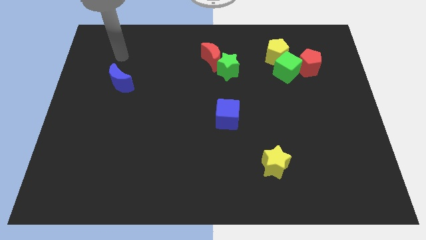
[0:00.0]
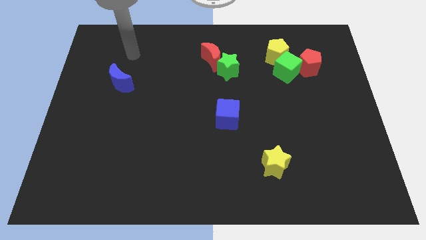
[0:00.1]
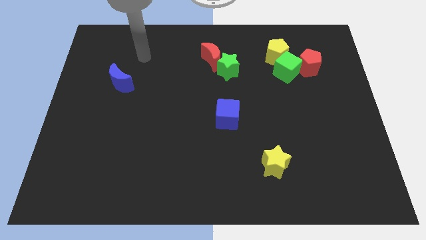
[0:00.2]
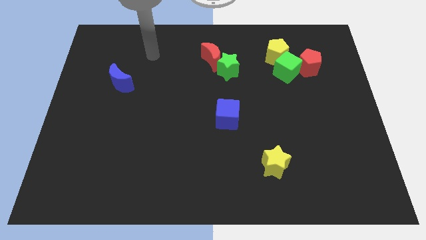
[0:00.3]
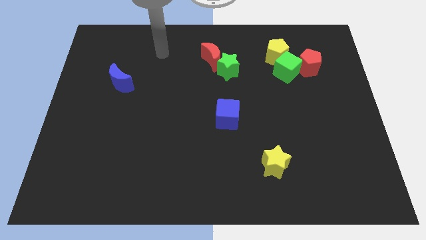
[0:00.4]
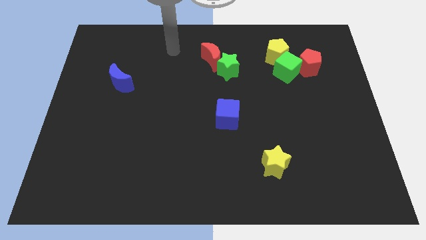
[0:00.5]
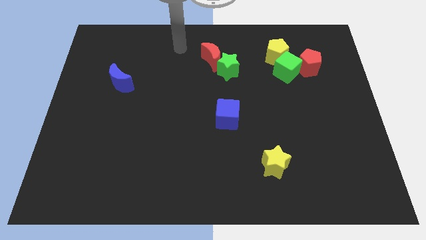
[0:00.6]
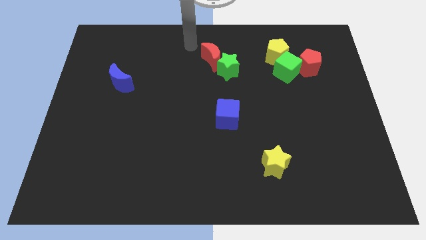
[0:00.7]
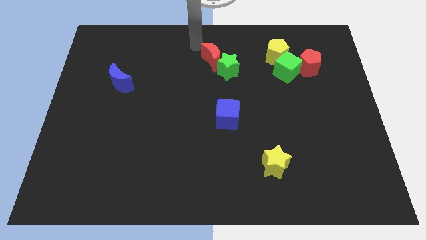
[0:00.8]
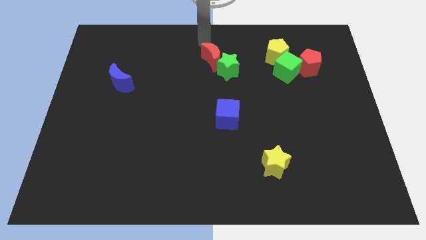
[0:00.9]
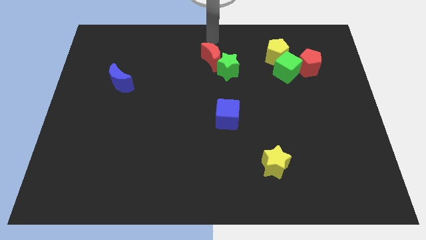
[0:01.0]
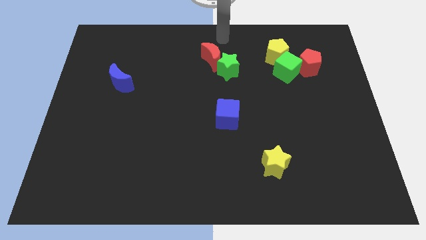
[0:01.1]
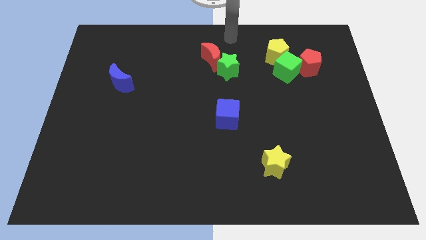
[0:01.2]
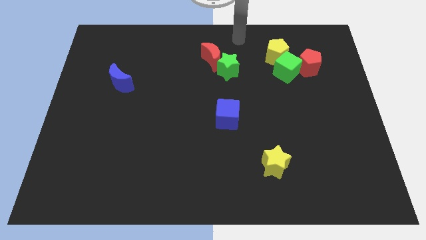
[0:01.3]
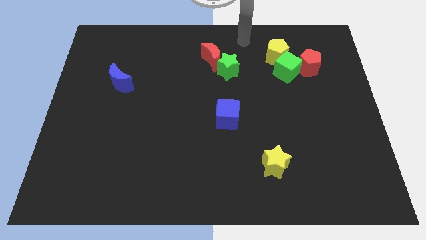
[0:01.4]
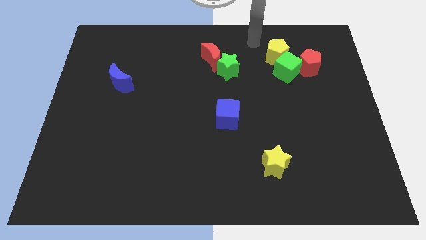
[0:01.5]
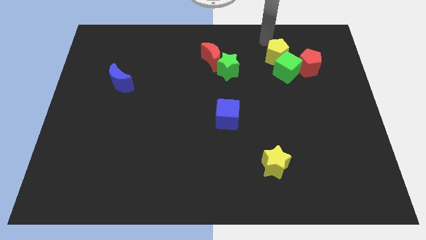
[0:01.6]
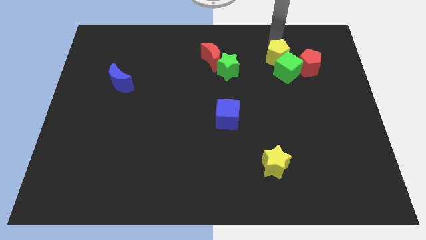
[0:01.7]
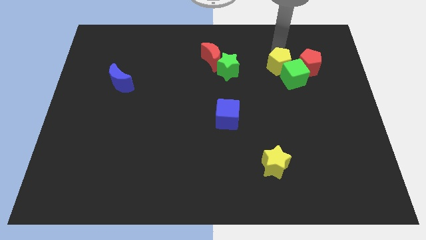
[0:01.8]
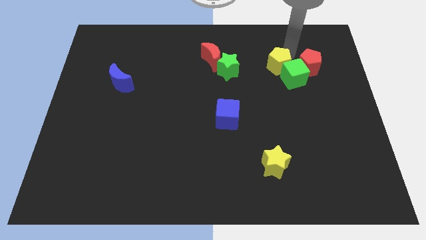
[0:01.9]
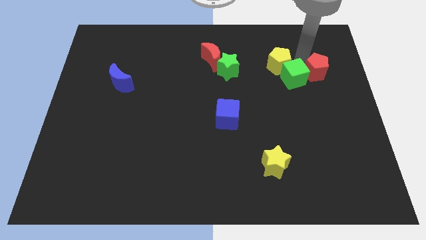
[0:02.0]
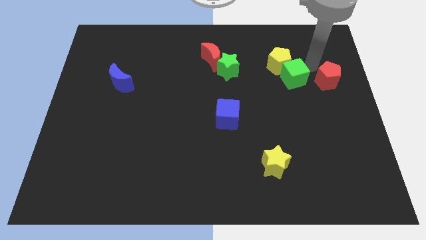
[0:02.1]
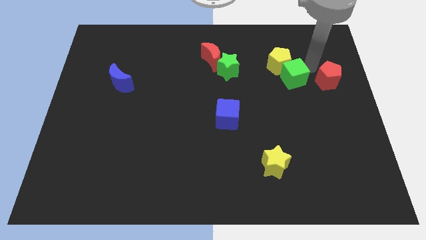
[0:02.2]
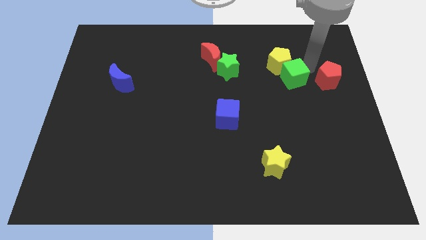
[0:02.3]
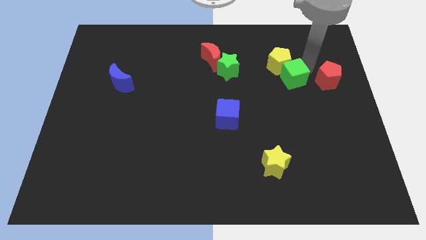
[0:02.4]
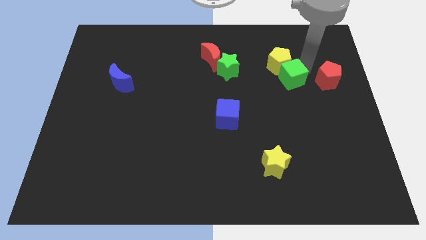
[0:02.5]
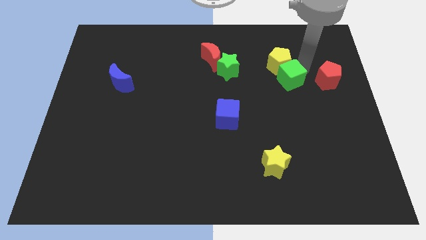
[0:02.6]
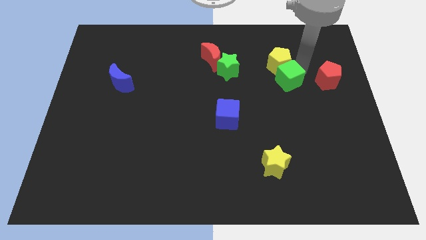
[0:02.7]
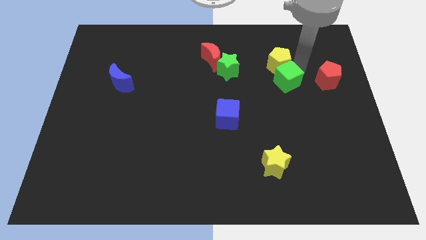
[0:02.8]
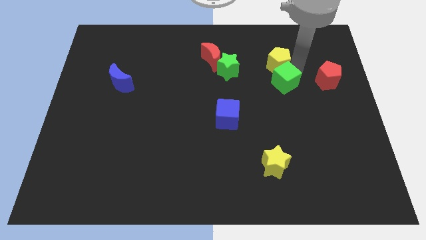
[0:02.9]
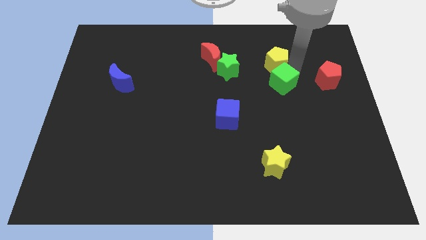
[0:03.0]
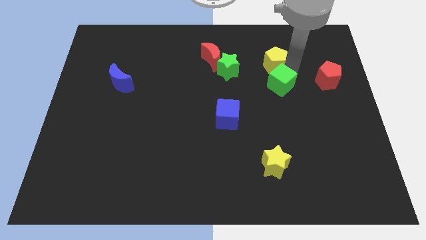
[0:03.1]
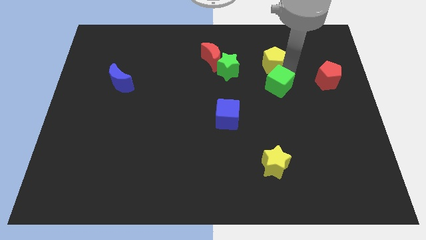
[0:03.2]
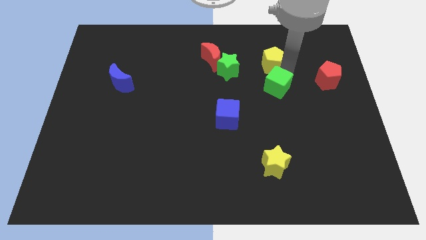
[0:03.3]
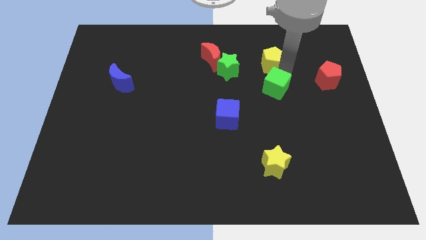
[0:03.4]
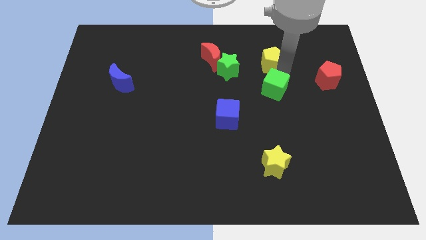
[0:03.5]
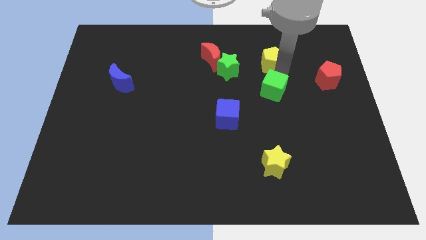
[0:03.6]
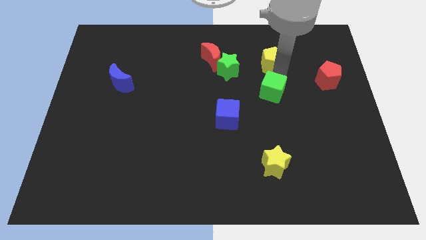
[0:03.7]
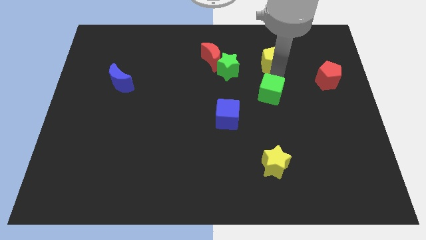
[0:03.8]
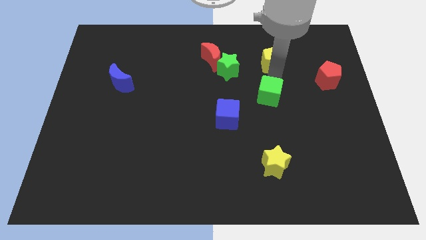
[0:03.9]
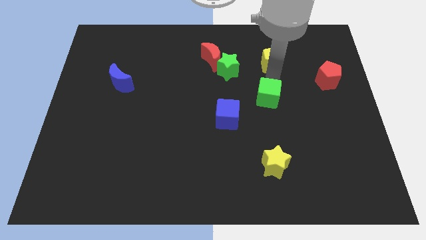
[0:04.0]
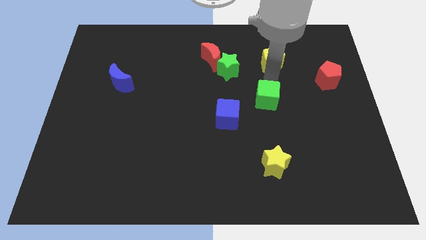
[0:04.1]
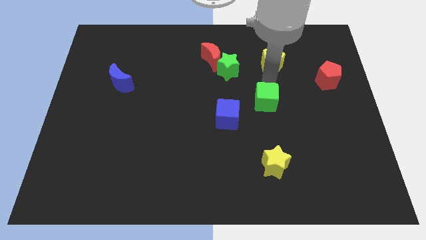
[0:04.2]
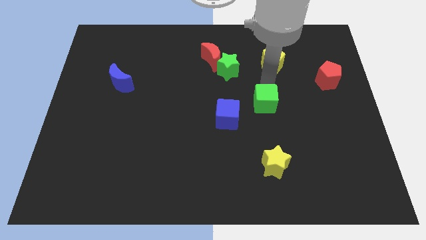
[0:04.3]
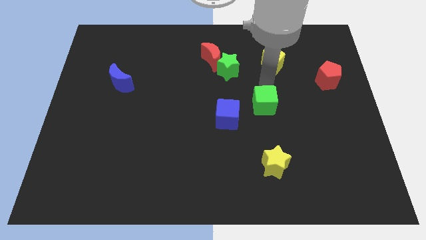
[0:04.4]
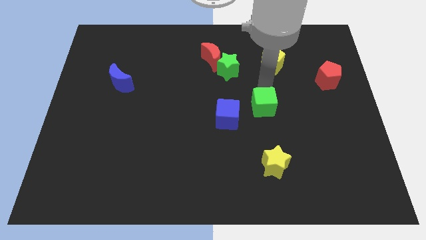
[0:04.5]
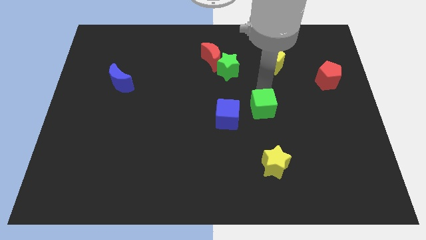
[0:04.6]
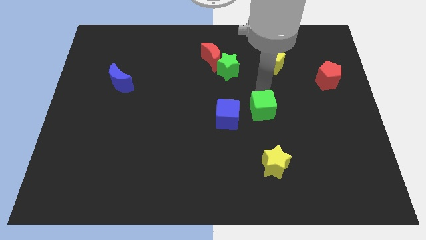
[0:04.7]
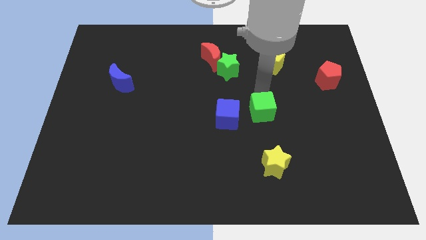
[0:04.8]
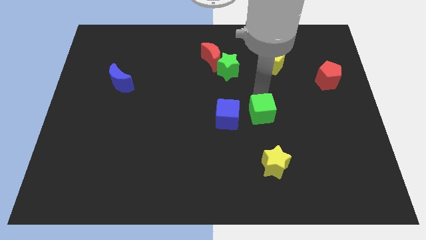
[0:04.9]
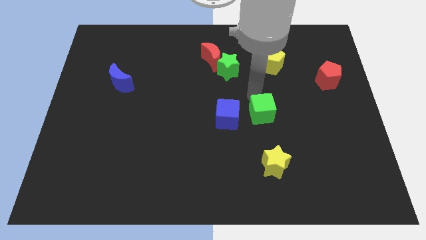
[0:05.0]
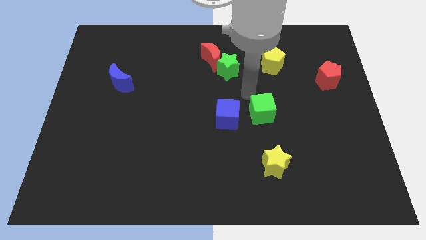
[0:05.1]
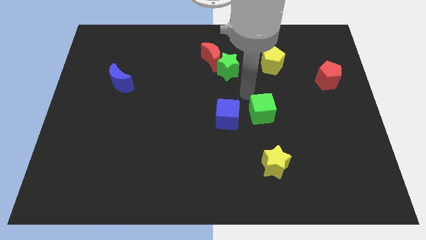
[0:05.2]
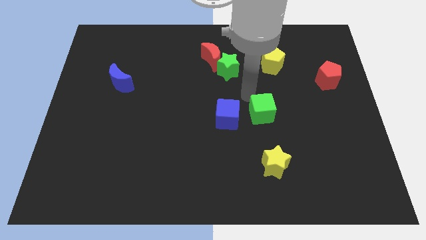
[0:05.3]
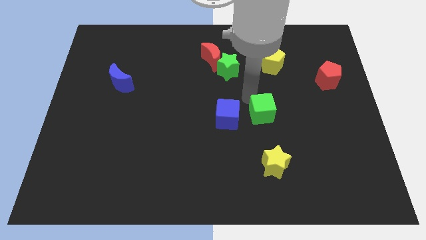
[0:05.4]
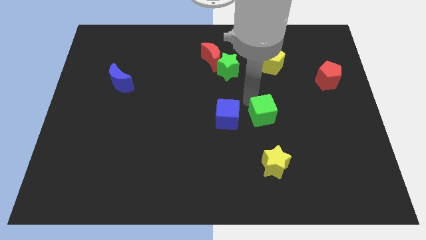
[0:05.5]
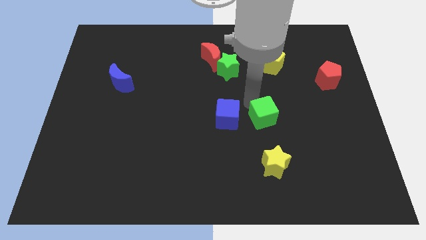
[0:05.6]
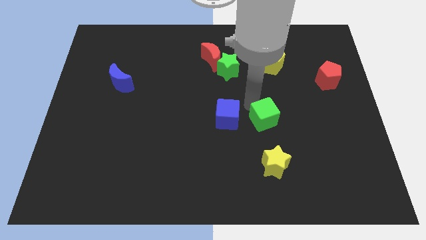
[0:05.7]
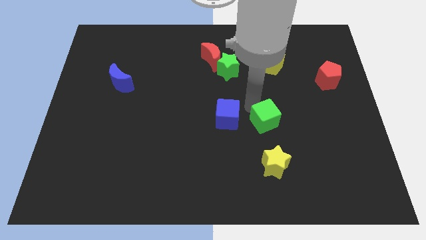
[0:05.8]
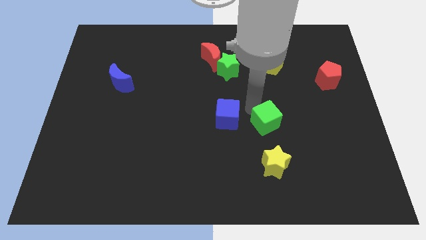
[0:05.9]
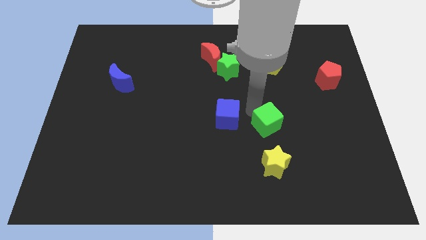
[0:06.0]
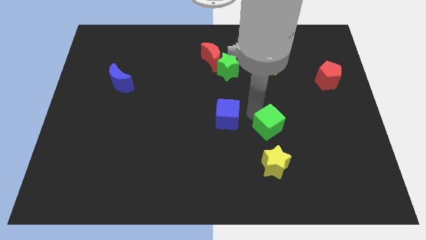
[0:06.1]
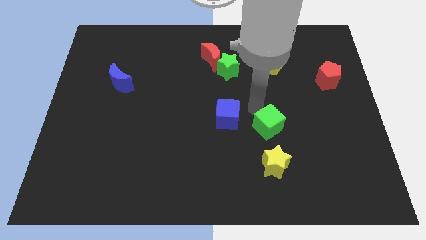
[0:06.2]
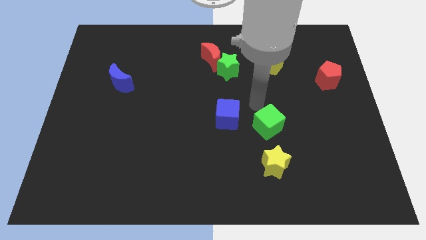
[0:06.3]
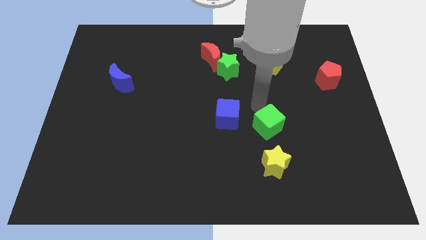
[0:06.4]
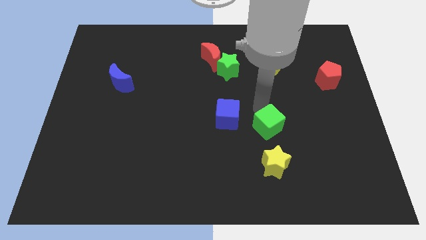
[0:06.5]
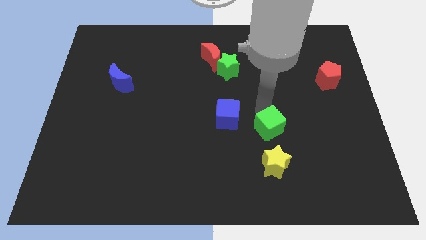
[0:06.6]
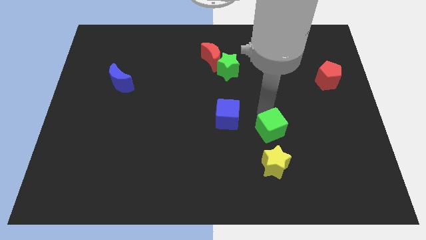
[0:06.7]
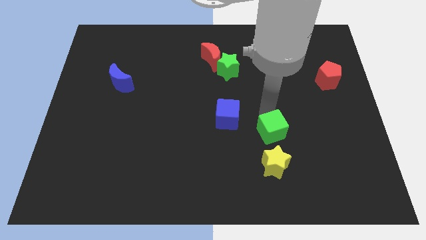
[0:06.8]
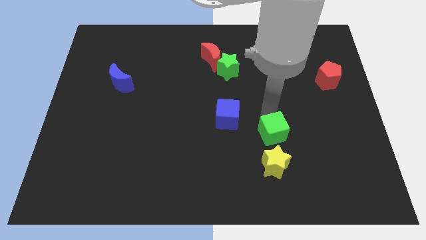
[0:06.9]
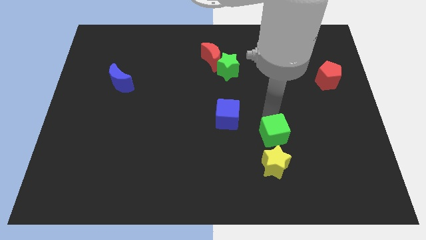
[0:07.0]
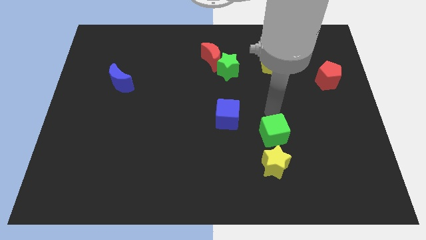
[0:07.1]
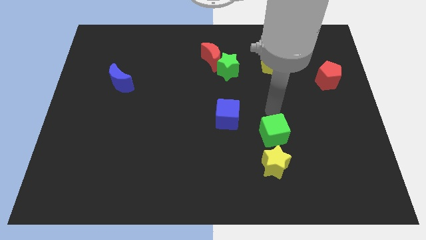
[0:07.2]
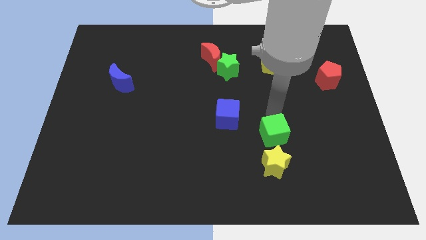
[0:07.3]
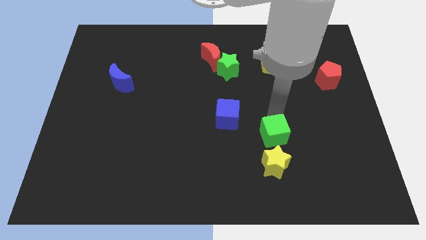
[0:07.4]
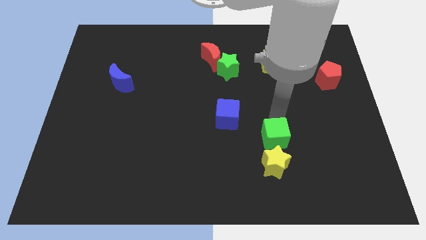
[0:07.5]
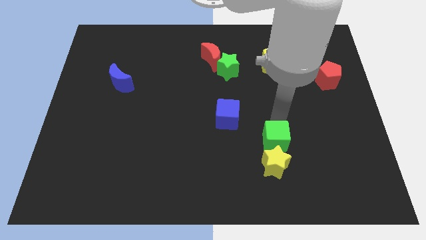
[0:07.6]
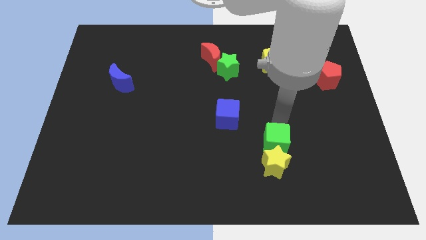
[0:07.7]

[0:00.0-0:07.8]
push the green cube close to the yellow star

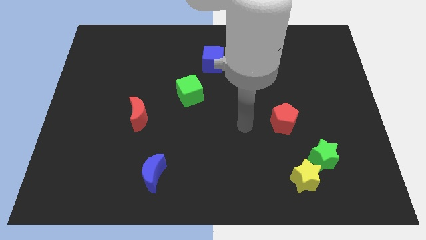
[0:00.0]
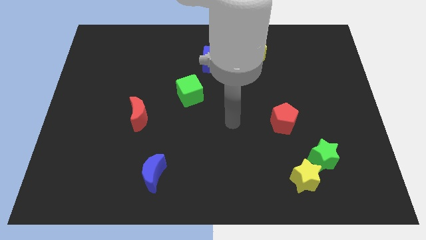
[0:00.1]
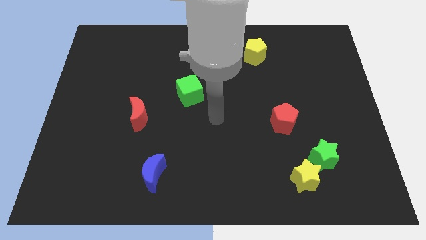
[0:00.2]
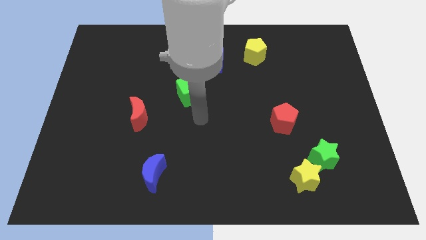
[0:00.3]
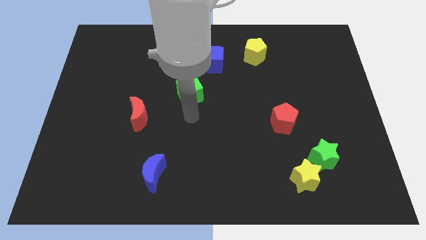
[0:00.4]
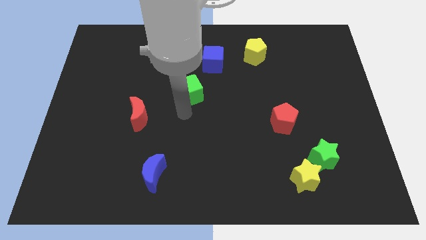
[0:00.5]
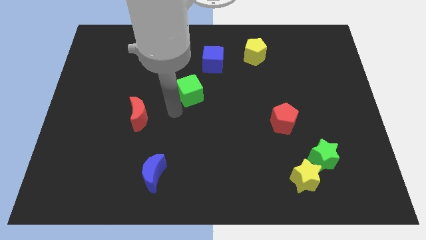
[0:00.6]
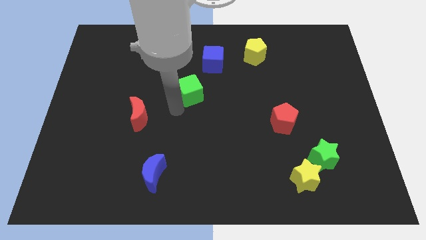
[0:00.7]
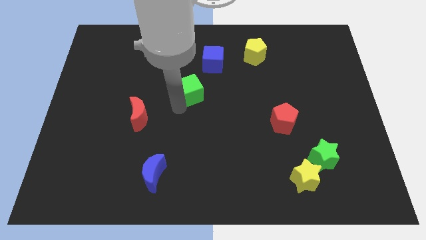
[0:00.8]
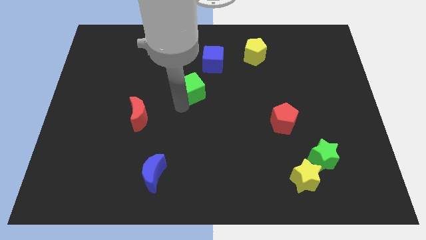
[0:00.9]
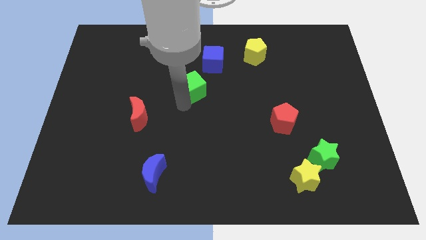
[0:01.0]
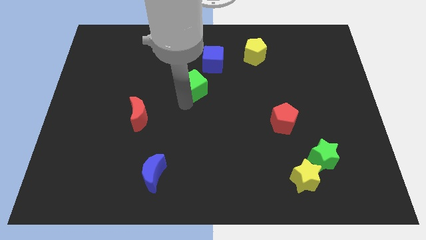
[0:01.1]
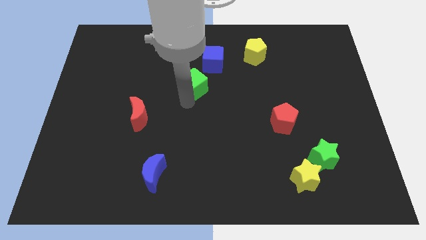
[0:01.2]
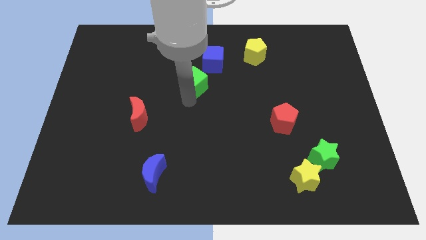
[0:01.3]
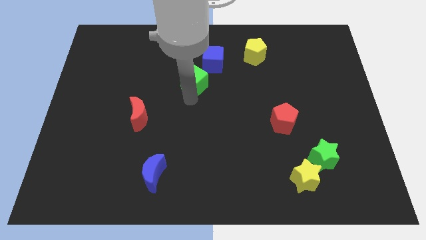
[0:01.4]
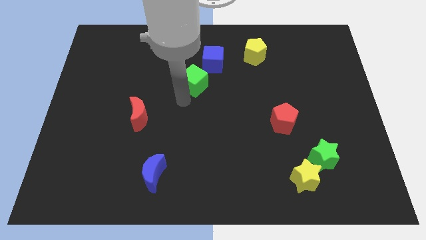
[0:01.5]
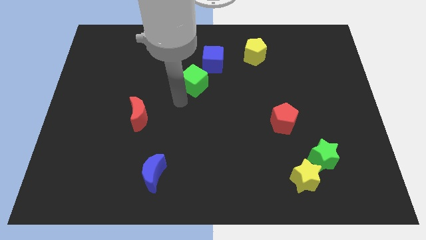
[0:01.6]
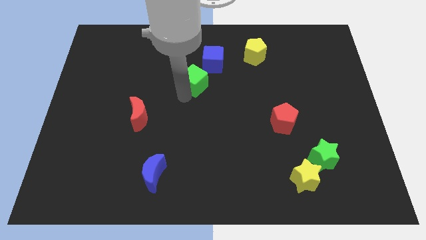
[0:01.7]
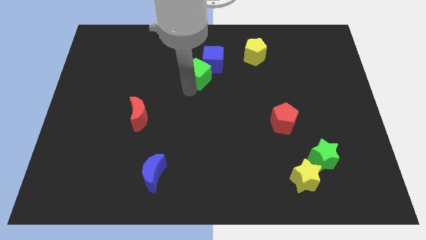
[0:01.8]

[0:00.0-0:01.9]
put the green cube towards the blue cube
